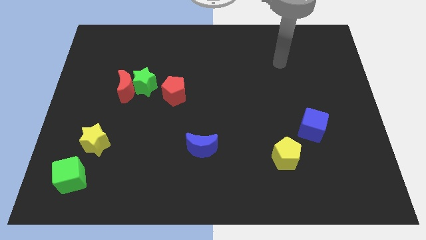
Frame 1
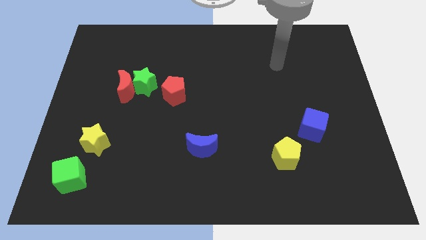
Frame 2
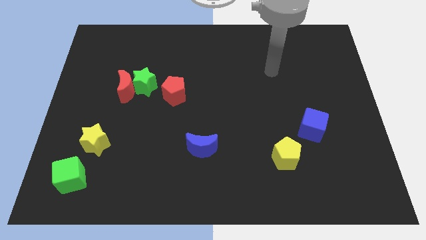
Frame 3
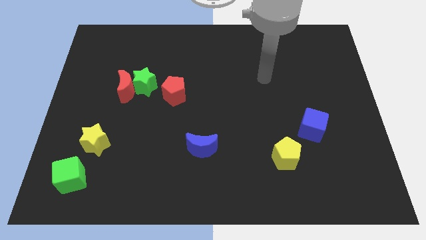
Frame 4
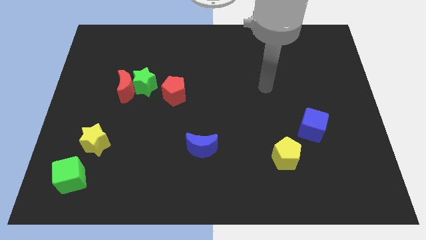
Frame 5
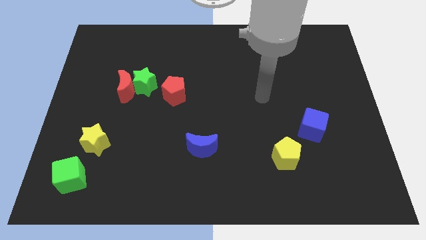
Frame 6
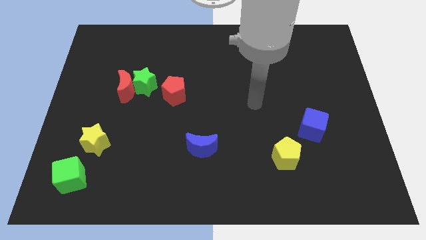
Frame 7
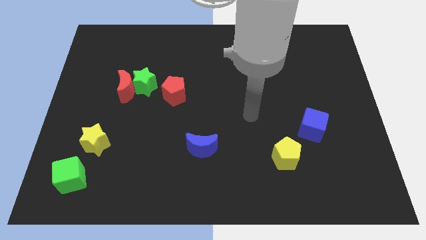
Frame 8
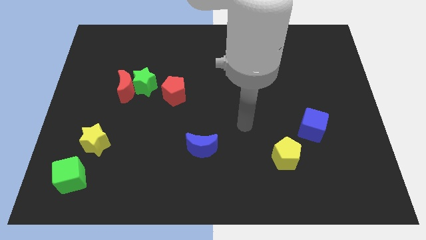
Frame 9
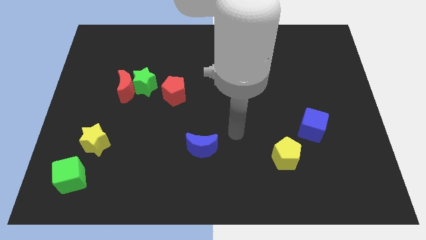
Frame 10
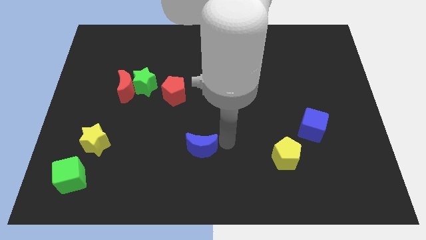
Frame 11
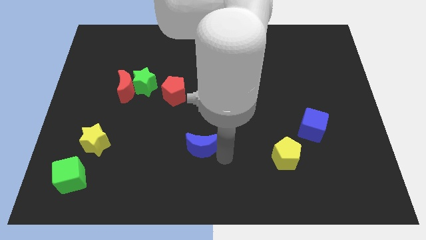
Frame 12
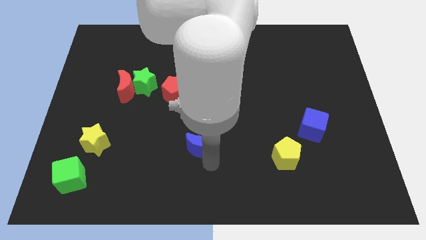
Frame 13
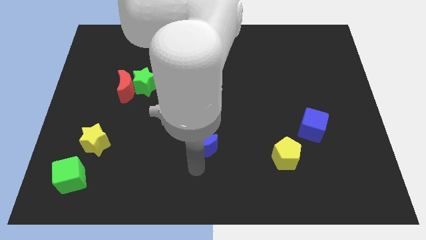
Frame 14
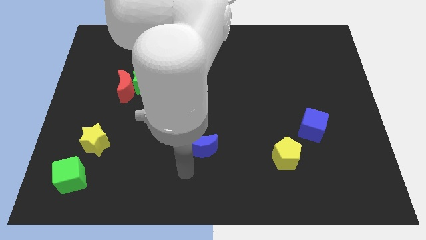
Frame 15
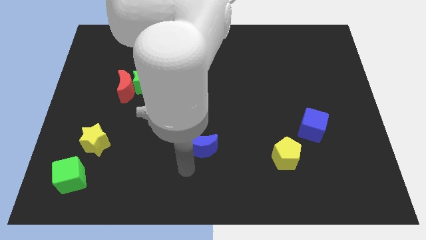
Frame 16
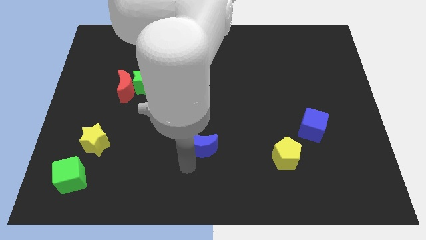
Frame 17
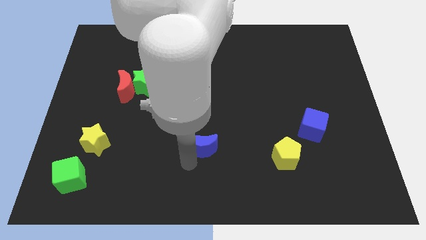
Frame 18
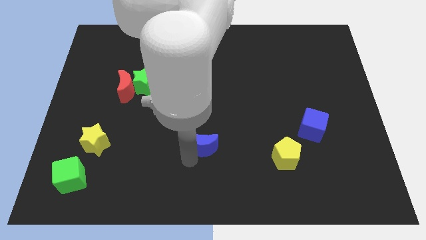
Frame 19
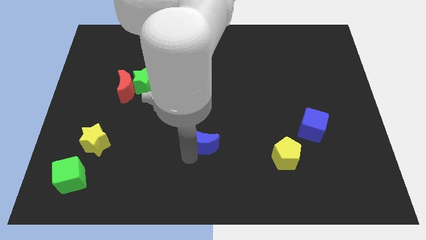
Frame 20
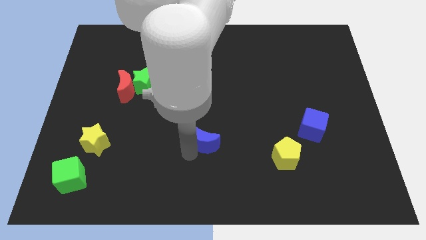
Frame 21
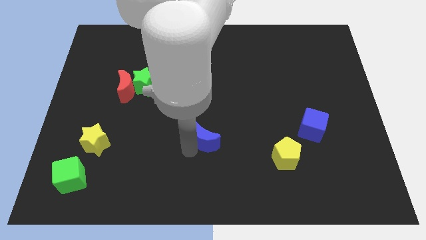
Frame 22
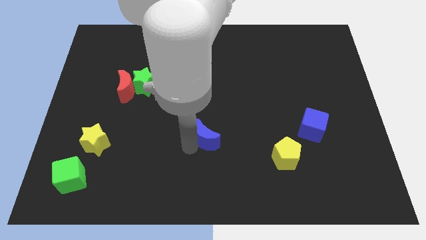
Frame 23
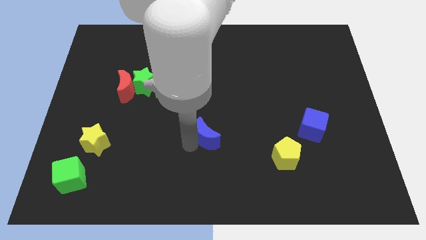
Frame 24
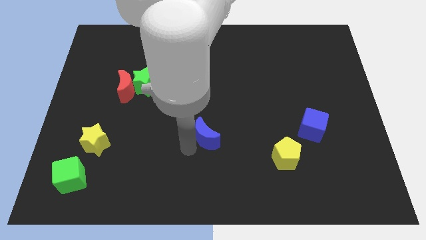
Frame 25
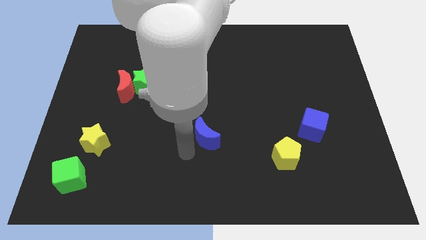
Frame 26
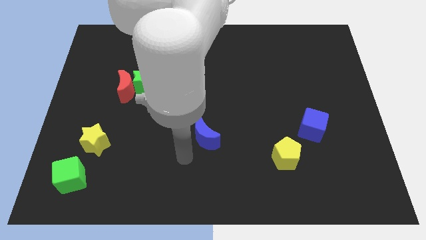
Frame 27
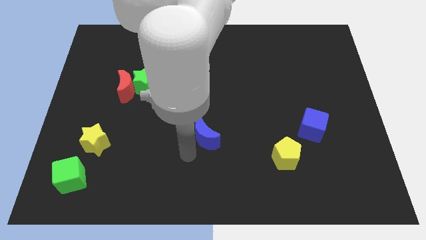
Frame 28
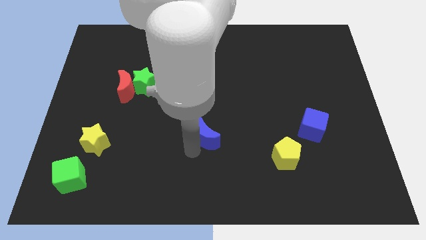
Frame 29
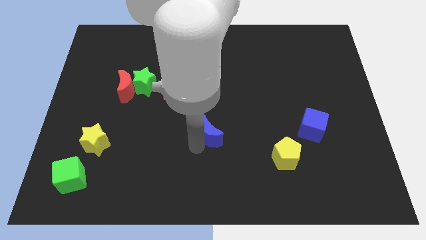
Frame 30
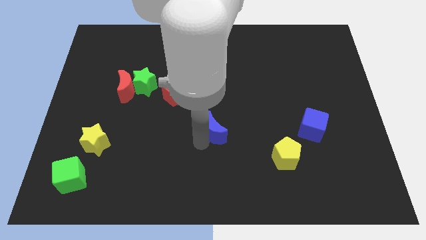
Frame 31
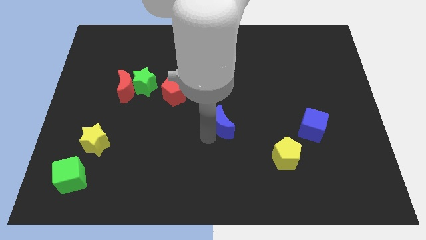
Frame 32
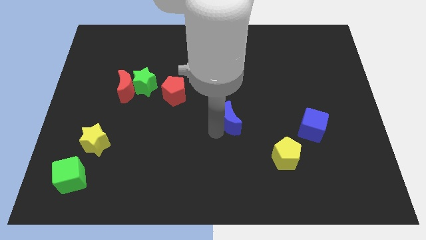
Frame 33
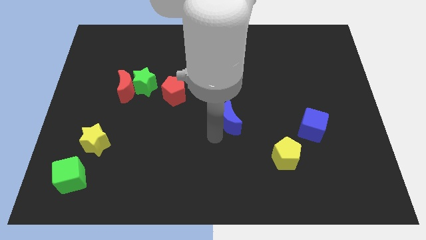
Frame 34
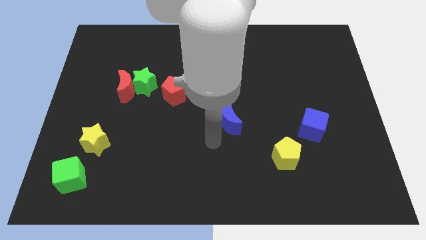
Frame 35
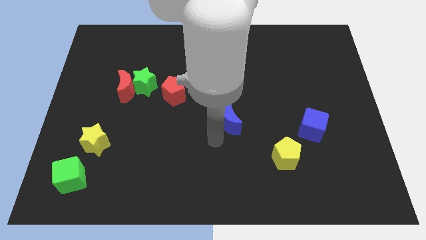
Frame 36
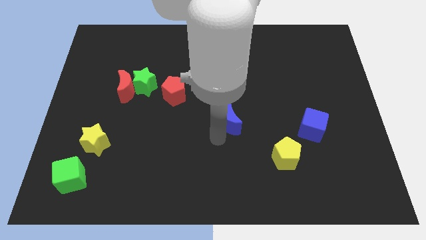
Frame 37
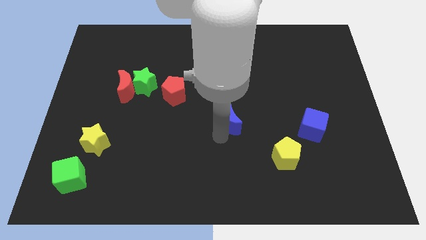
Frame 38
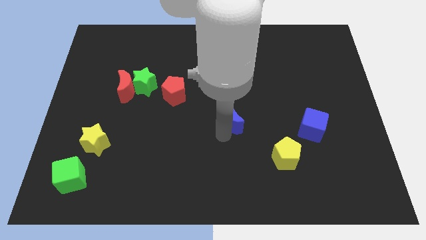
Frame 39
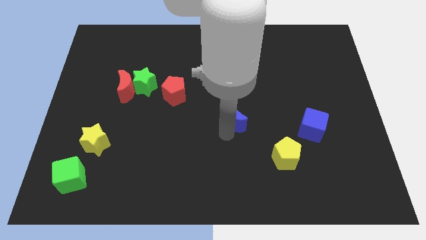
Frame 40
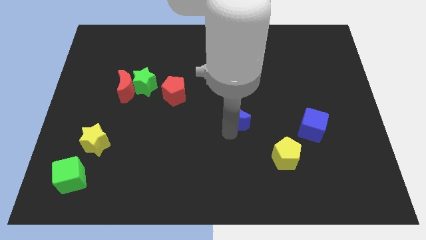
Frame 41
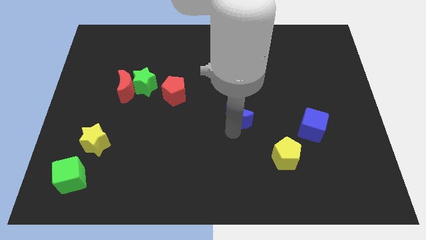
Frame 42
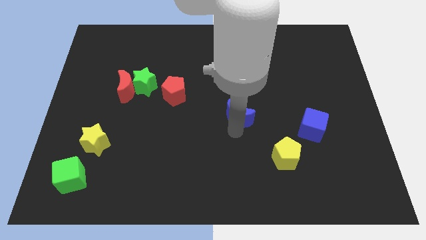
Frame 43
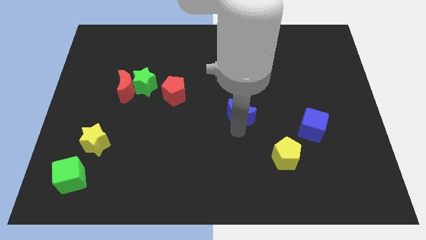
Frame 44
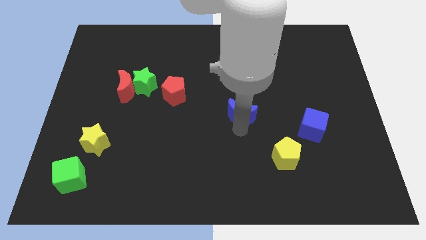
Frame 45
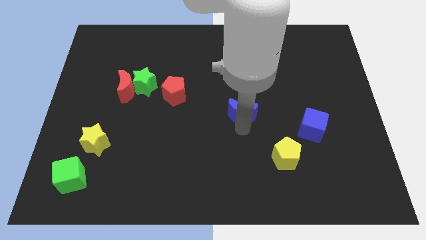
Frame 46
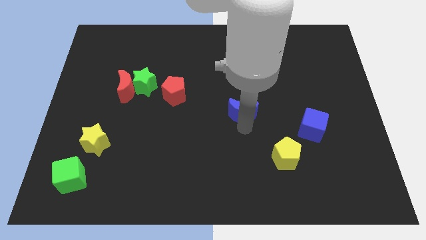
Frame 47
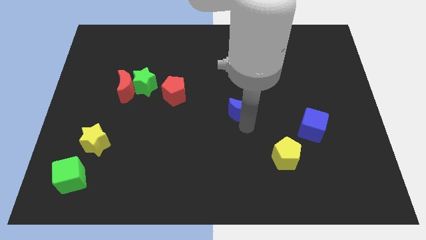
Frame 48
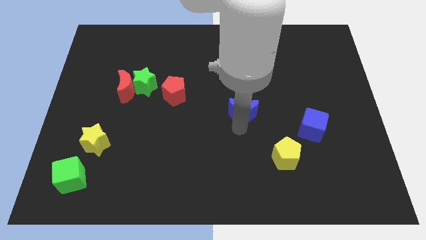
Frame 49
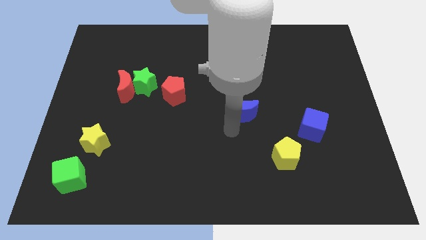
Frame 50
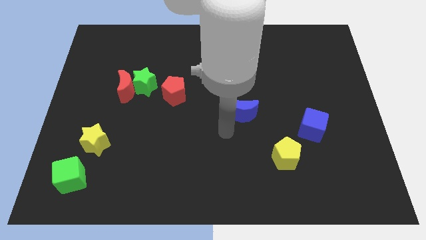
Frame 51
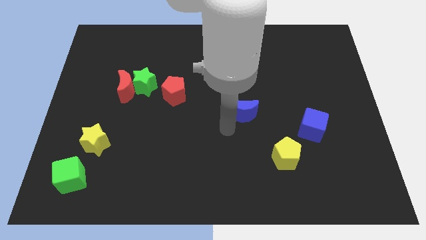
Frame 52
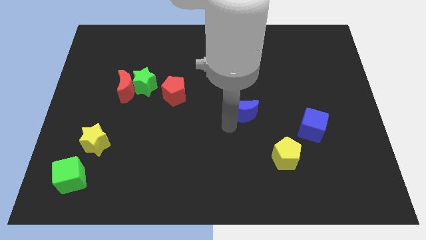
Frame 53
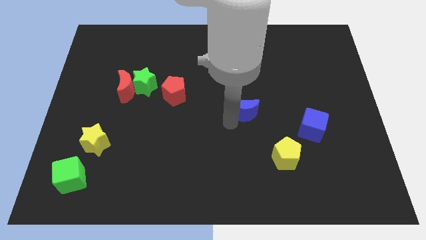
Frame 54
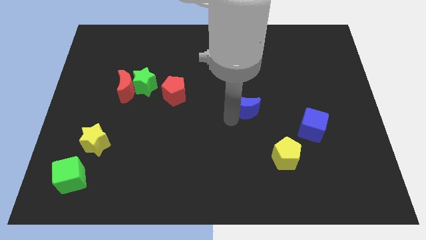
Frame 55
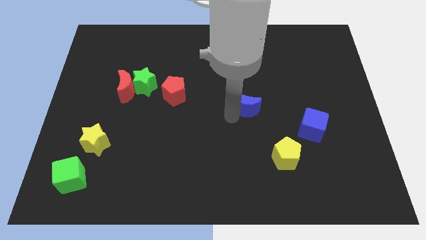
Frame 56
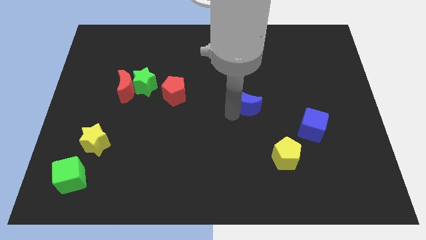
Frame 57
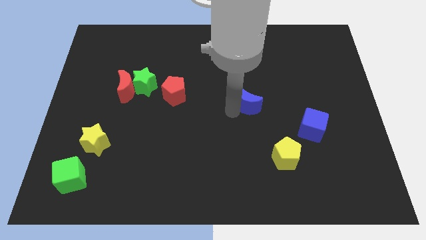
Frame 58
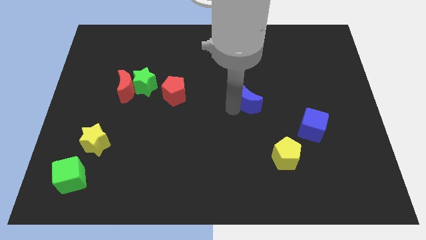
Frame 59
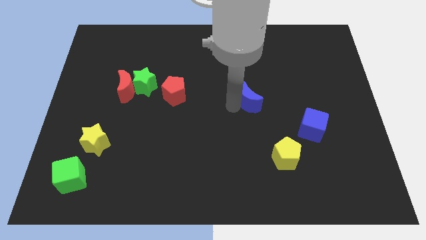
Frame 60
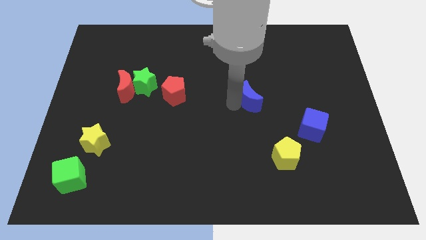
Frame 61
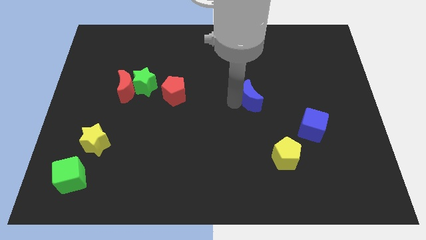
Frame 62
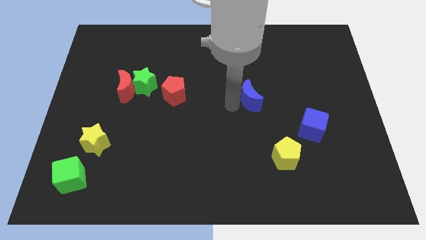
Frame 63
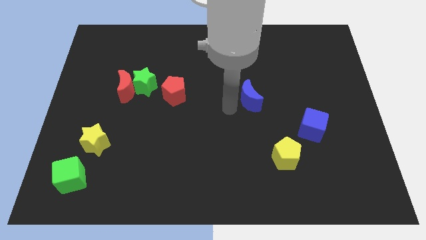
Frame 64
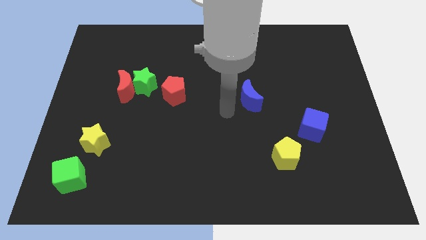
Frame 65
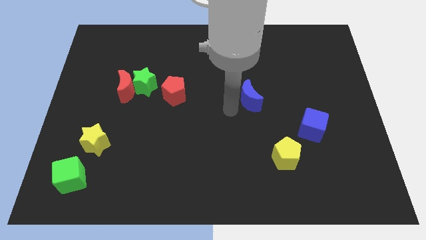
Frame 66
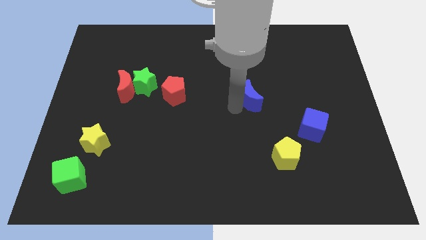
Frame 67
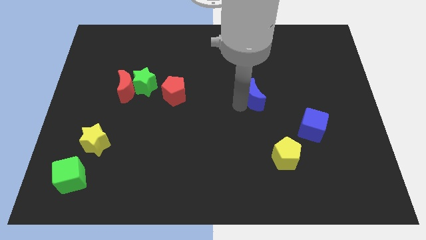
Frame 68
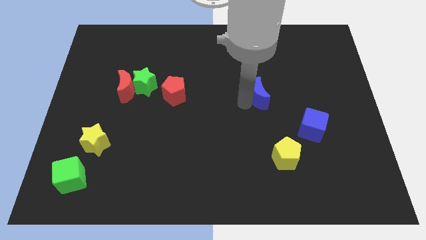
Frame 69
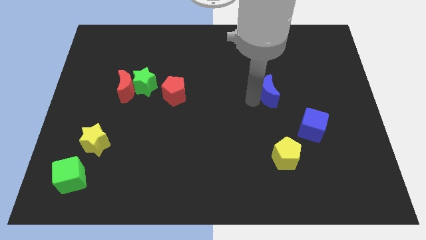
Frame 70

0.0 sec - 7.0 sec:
push the blue moon upwards and right

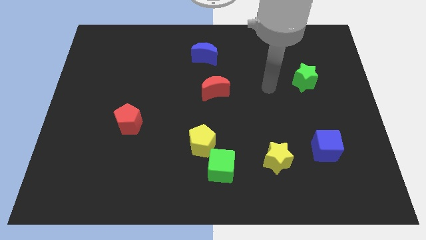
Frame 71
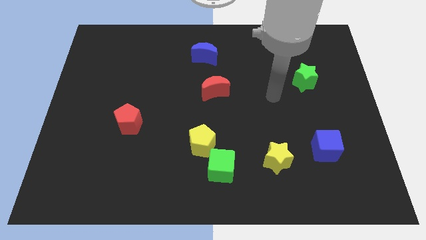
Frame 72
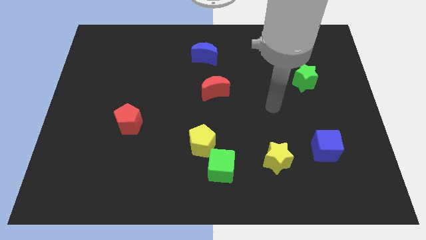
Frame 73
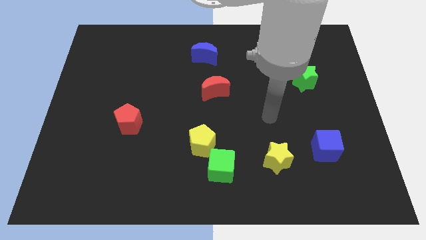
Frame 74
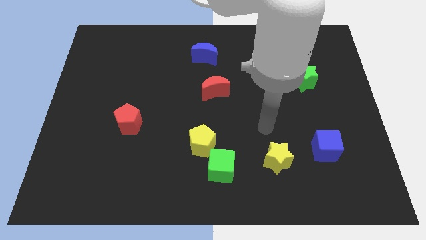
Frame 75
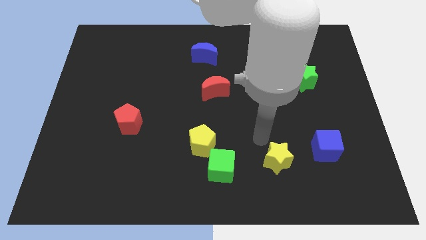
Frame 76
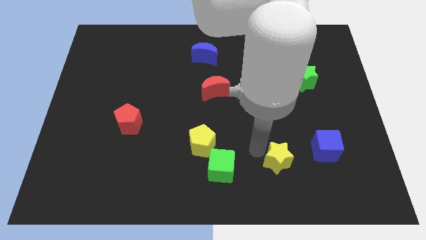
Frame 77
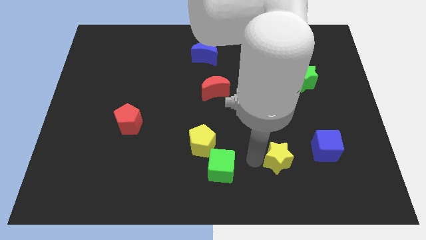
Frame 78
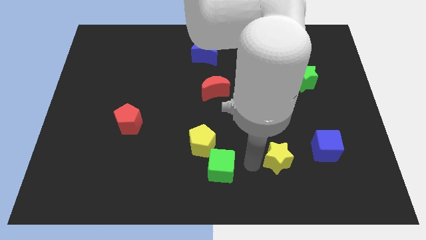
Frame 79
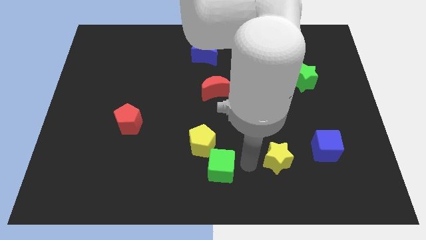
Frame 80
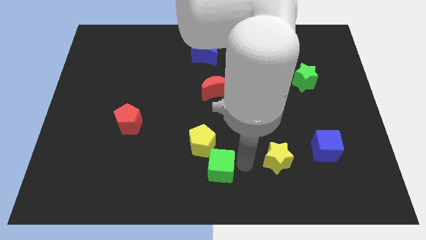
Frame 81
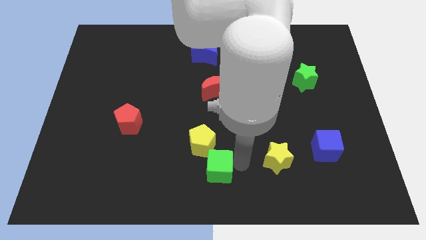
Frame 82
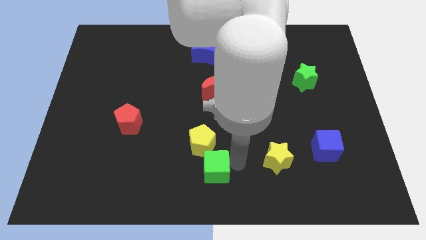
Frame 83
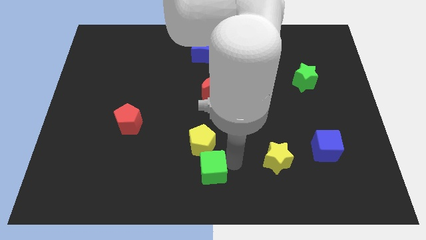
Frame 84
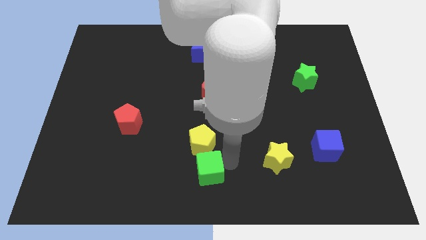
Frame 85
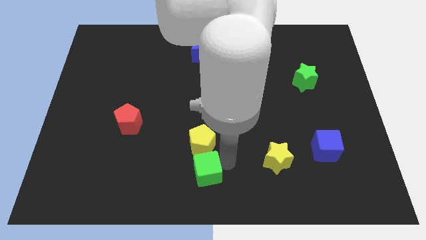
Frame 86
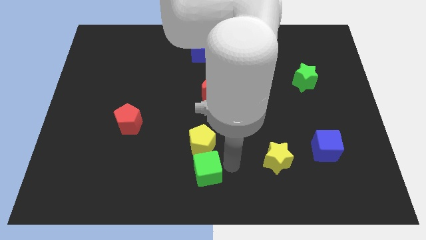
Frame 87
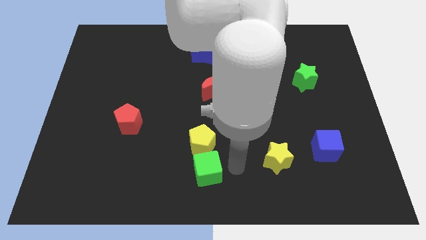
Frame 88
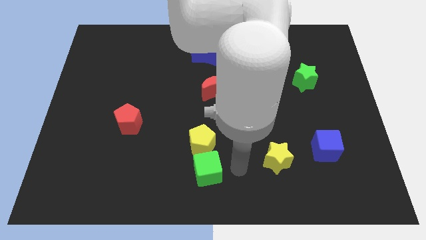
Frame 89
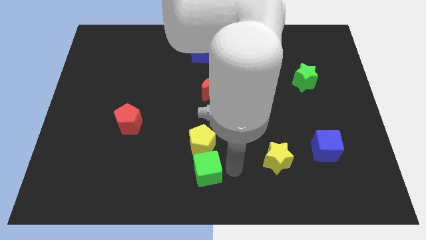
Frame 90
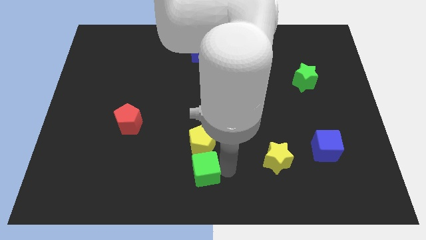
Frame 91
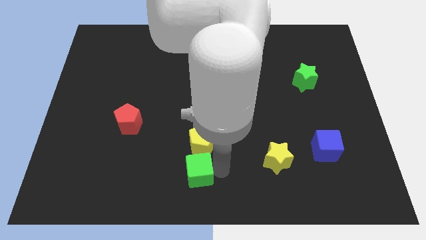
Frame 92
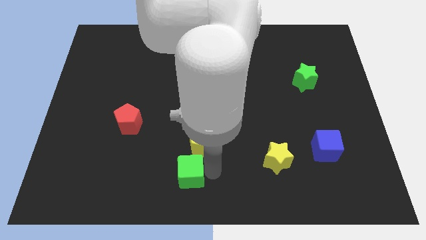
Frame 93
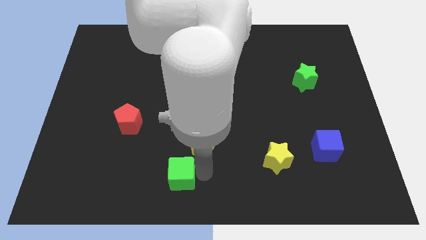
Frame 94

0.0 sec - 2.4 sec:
slightly move the green cube left
